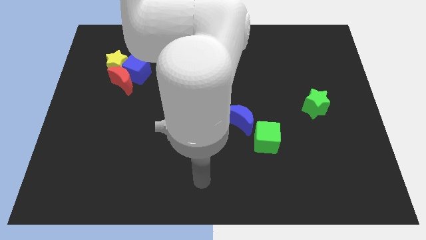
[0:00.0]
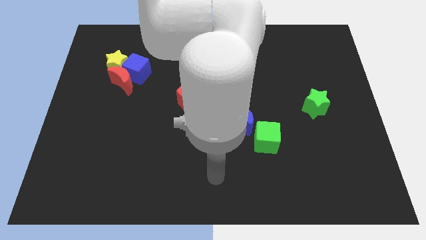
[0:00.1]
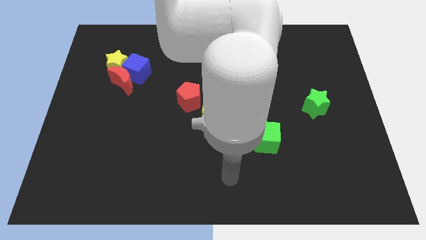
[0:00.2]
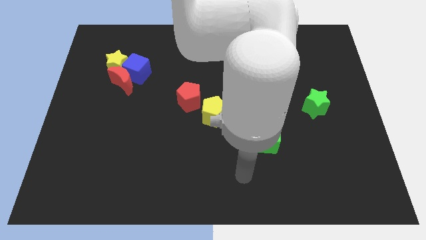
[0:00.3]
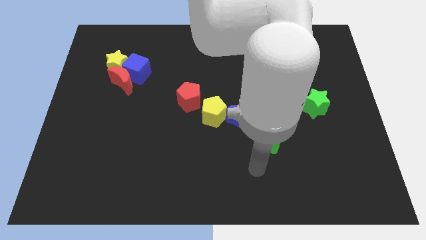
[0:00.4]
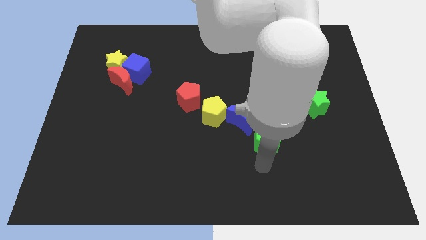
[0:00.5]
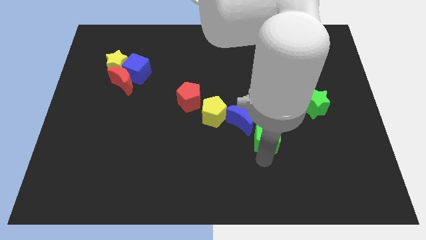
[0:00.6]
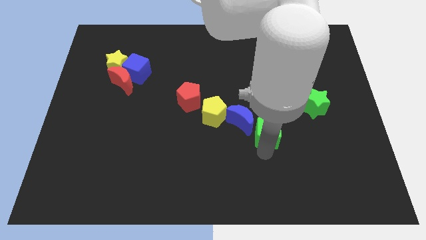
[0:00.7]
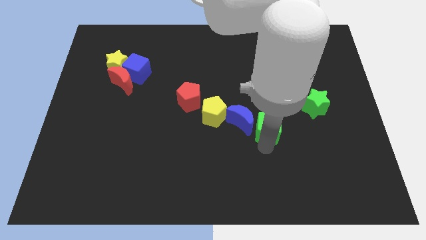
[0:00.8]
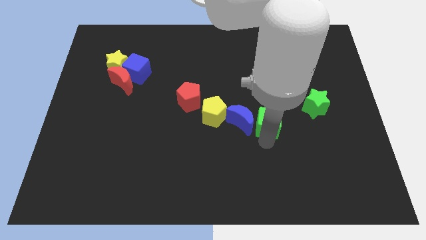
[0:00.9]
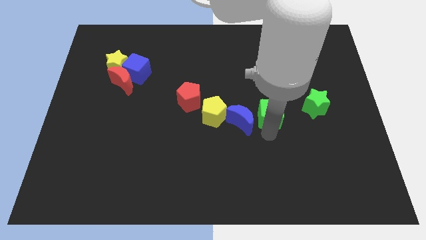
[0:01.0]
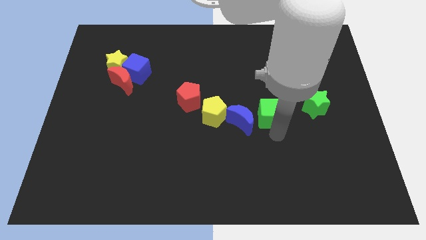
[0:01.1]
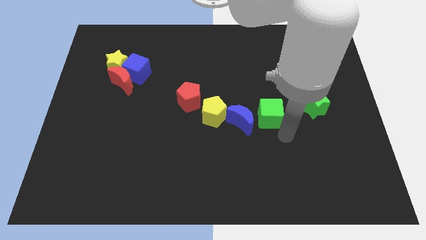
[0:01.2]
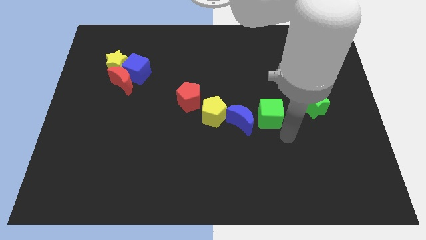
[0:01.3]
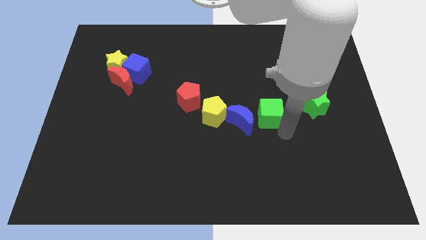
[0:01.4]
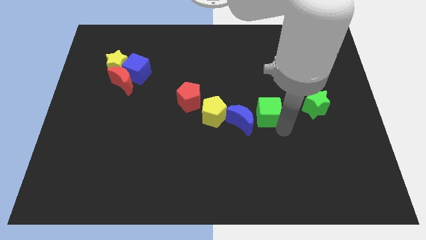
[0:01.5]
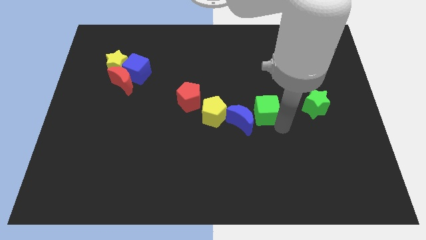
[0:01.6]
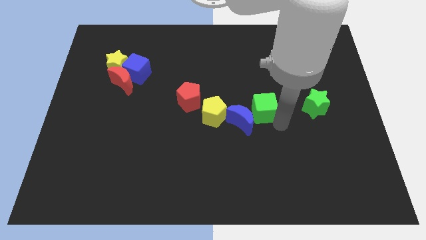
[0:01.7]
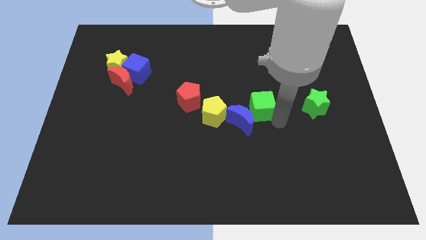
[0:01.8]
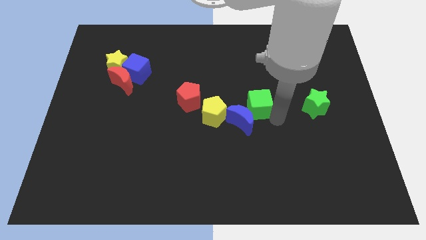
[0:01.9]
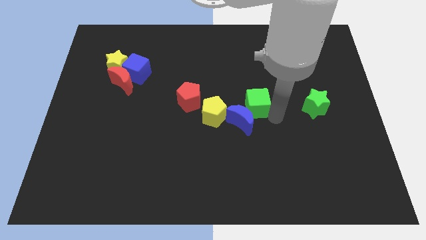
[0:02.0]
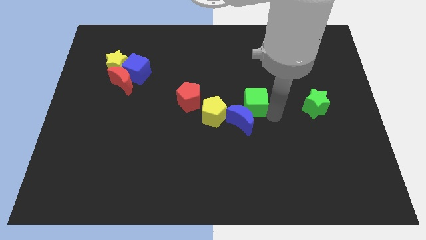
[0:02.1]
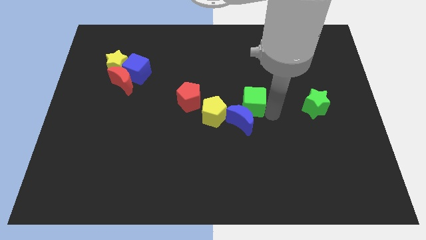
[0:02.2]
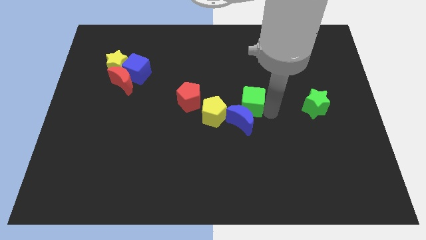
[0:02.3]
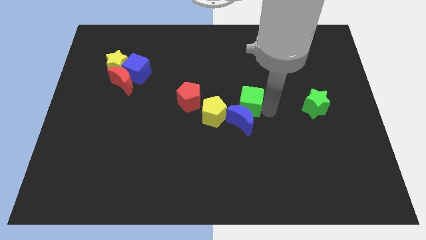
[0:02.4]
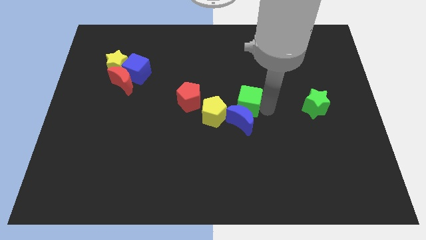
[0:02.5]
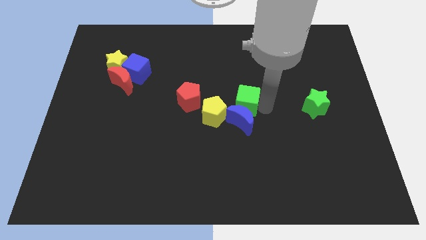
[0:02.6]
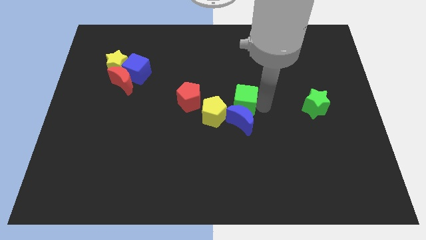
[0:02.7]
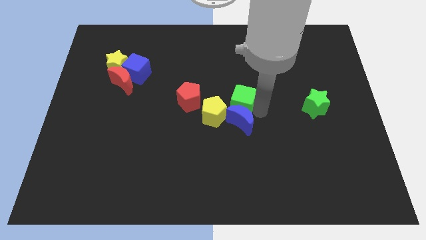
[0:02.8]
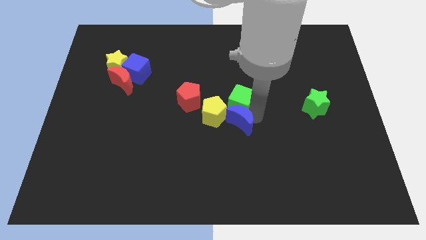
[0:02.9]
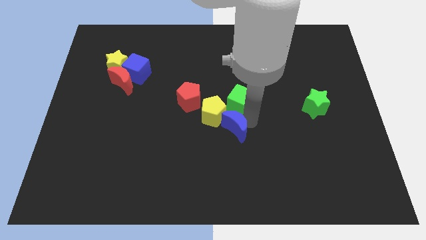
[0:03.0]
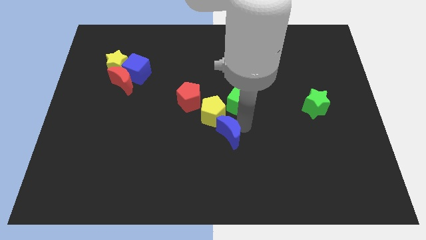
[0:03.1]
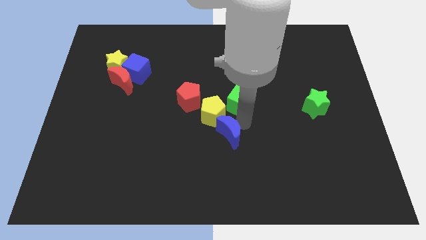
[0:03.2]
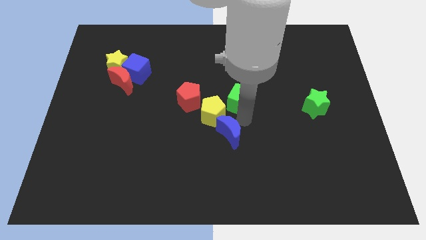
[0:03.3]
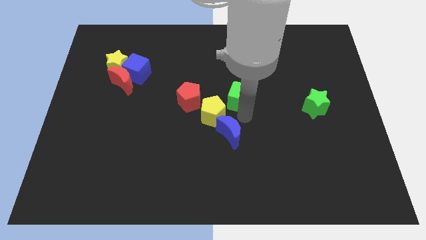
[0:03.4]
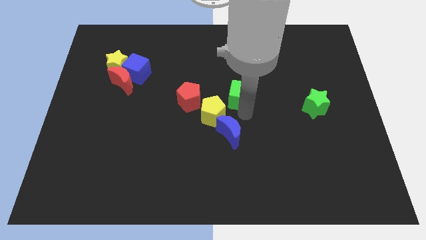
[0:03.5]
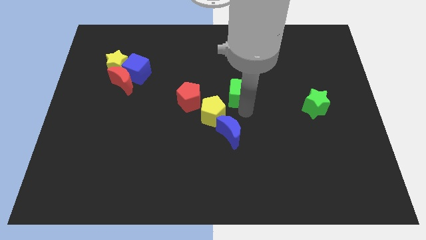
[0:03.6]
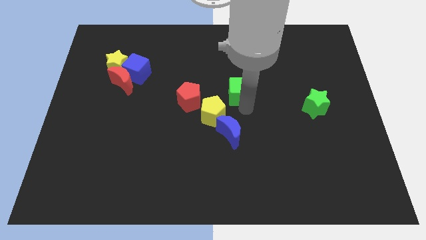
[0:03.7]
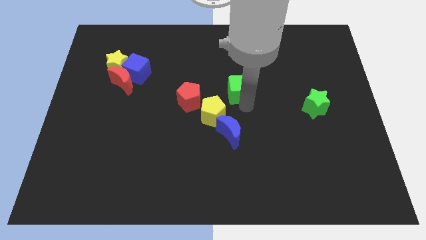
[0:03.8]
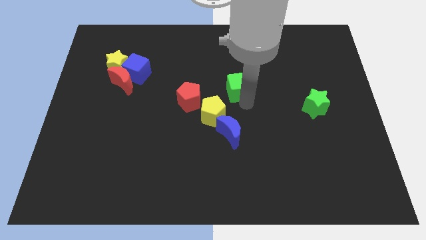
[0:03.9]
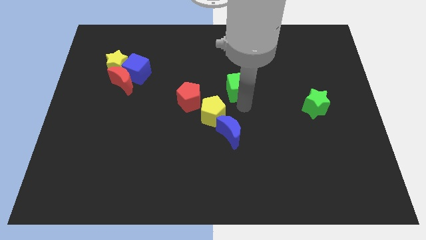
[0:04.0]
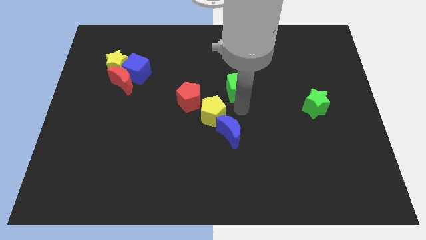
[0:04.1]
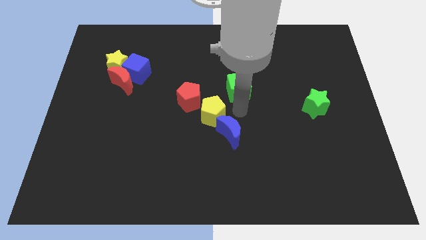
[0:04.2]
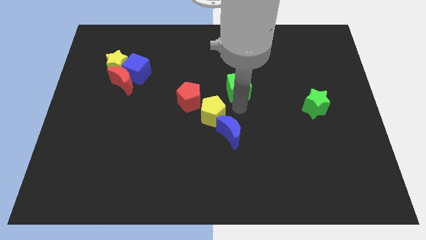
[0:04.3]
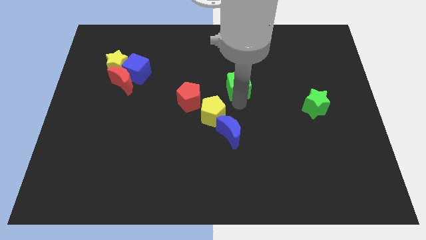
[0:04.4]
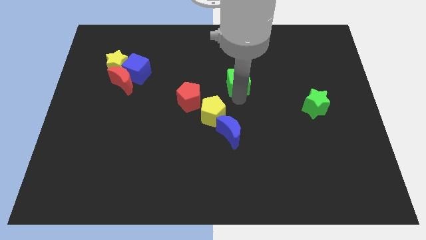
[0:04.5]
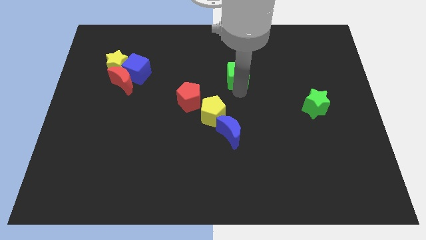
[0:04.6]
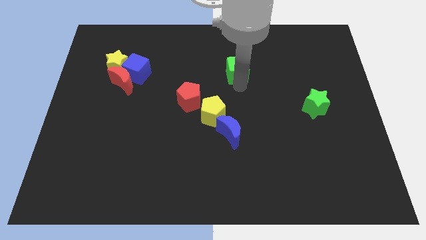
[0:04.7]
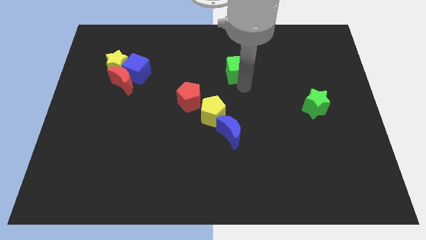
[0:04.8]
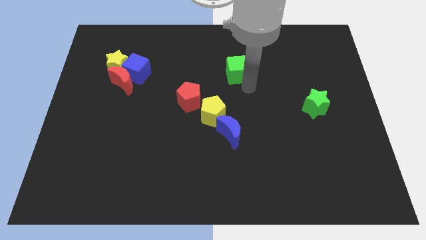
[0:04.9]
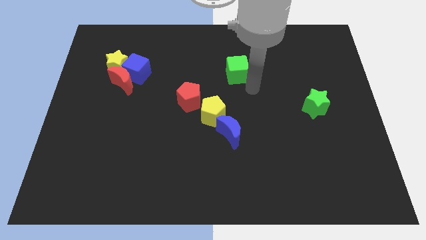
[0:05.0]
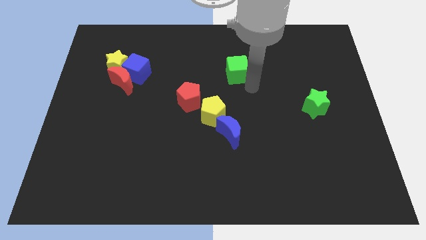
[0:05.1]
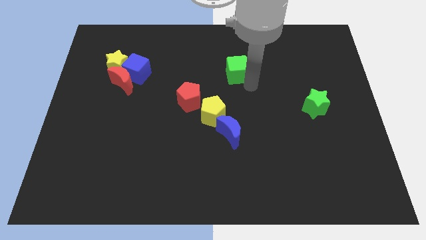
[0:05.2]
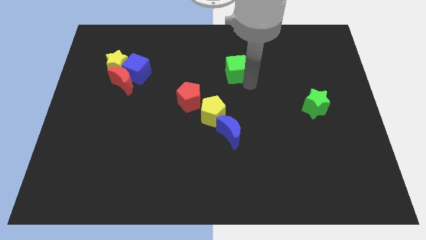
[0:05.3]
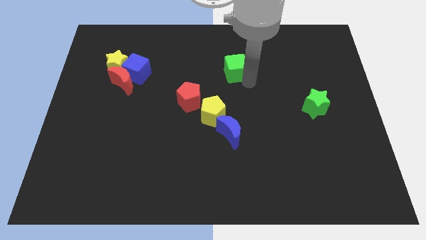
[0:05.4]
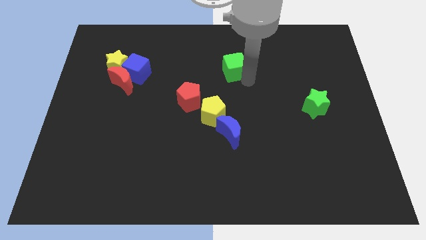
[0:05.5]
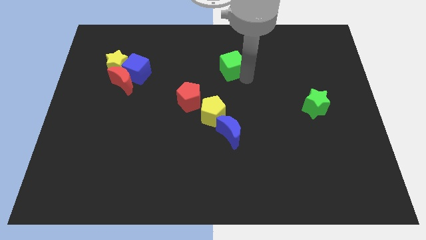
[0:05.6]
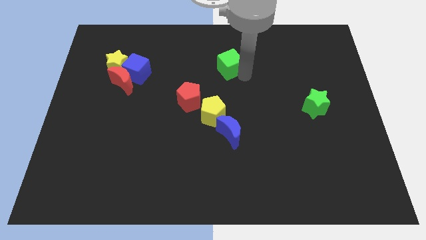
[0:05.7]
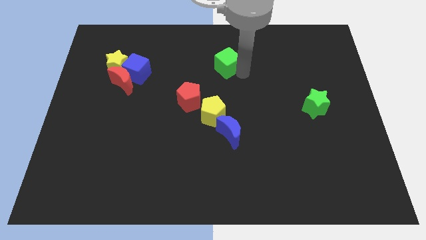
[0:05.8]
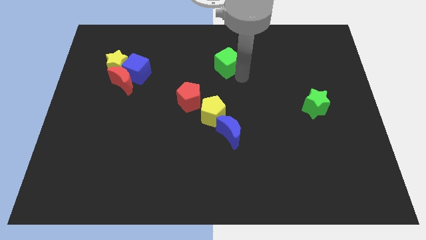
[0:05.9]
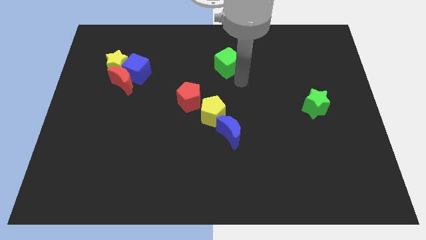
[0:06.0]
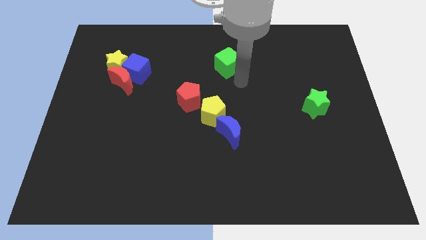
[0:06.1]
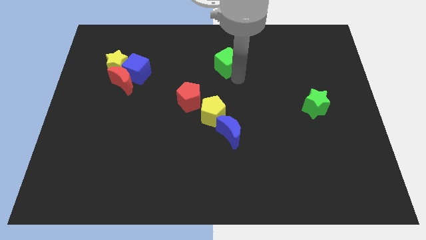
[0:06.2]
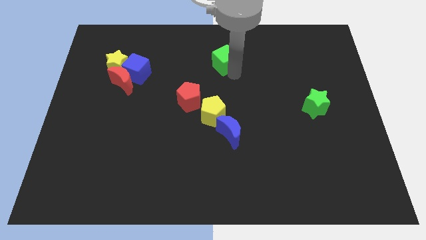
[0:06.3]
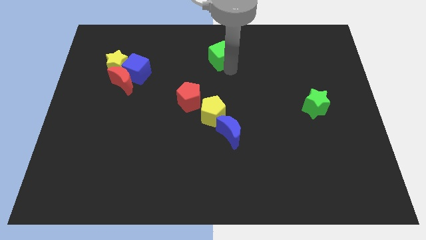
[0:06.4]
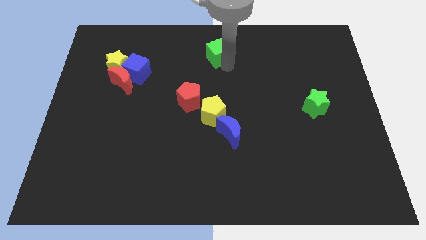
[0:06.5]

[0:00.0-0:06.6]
move the green cube to the top

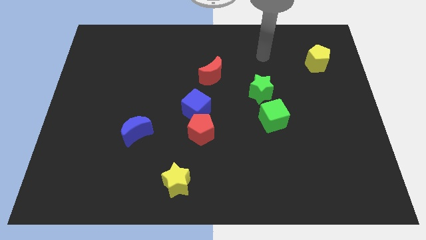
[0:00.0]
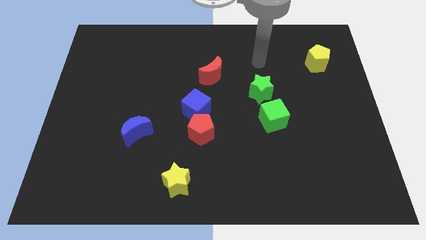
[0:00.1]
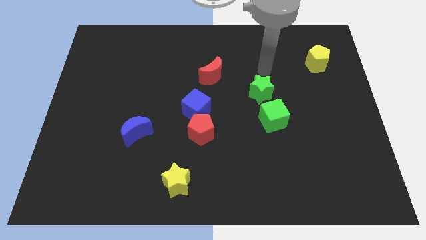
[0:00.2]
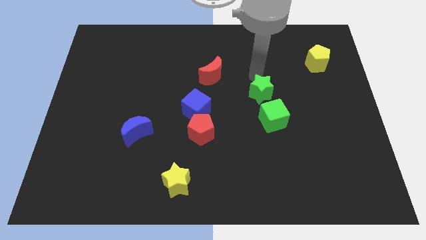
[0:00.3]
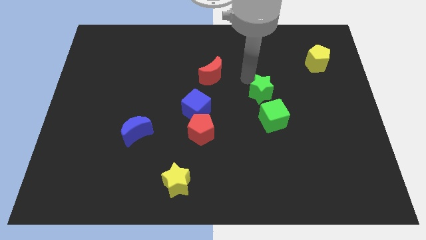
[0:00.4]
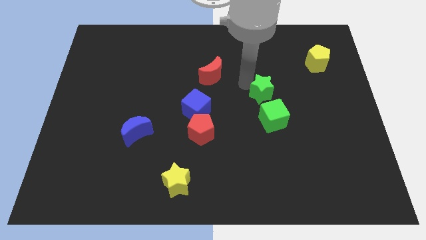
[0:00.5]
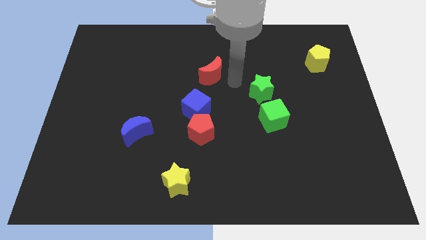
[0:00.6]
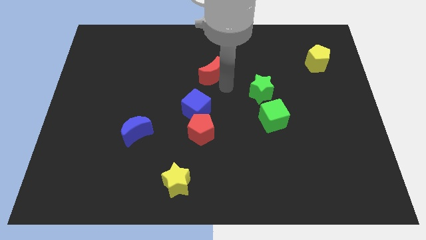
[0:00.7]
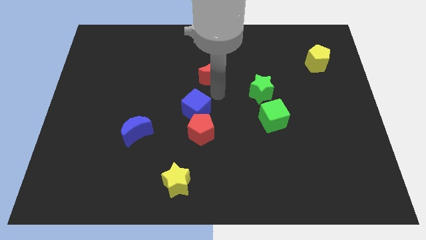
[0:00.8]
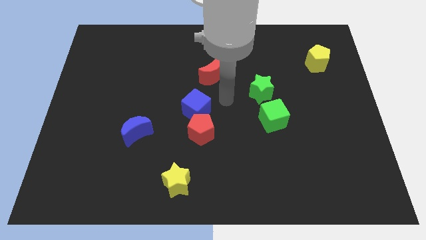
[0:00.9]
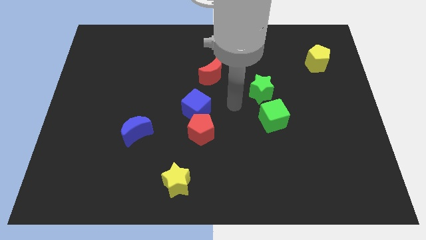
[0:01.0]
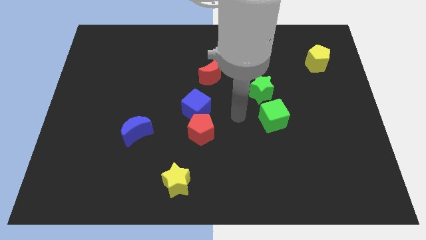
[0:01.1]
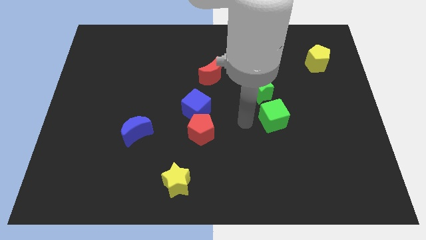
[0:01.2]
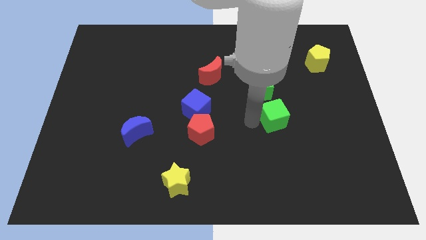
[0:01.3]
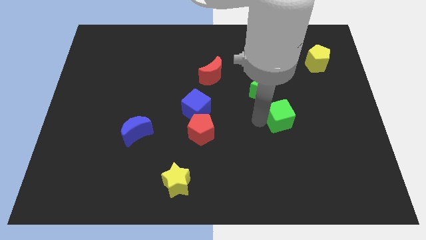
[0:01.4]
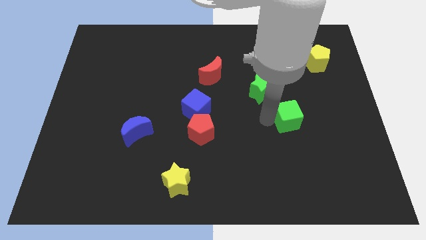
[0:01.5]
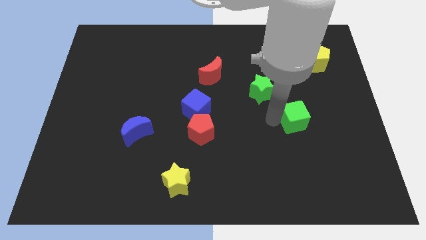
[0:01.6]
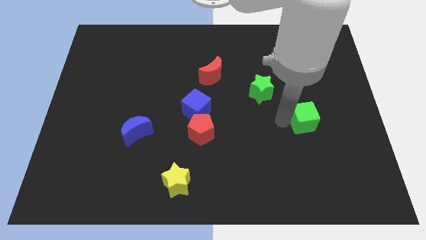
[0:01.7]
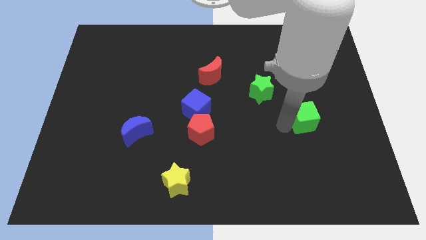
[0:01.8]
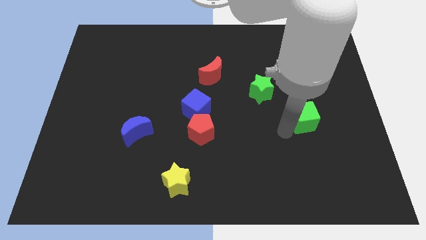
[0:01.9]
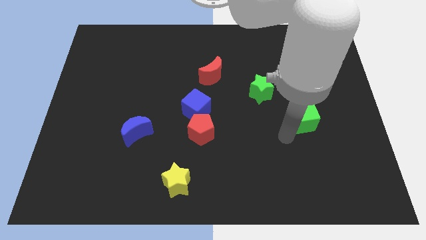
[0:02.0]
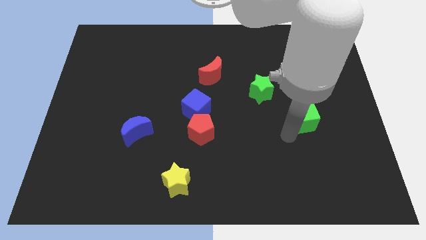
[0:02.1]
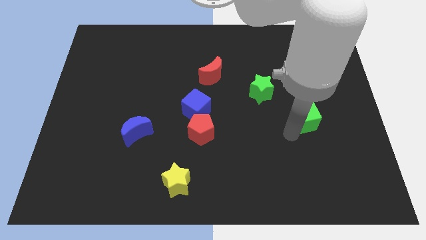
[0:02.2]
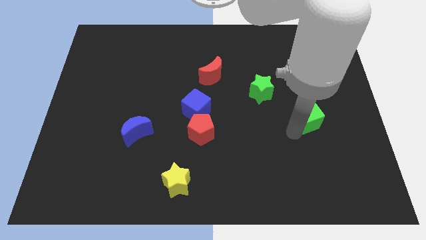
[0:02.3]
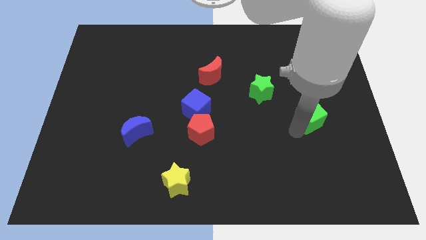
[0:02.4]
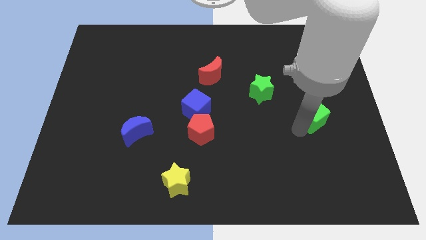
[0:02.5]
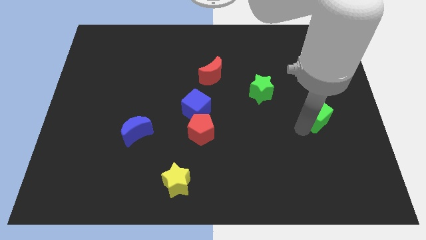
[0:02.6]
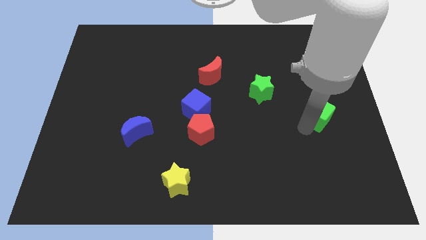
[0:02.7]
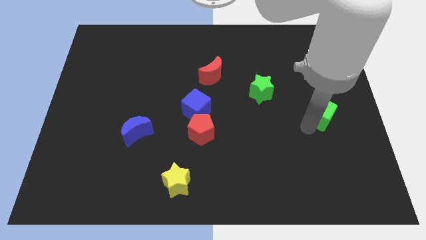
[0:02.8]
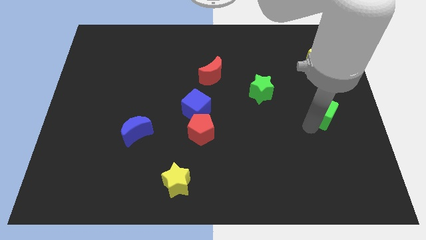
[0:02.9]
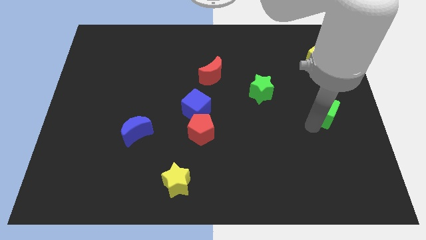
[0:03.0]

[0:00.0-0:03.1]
move the green cube to the right side of the board
